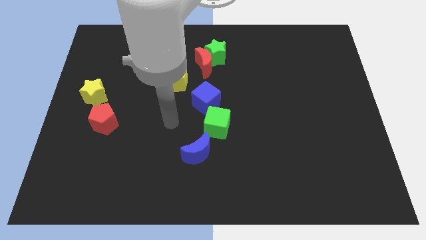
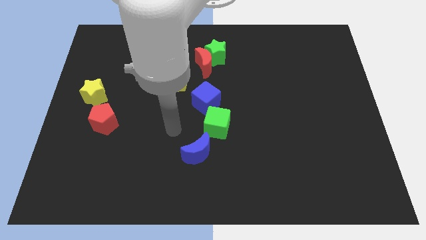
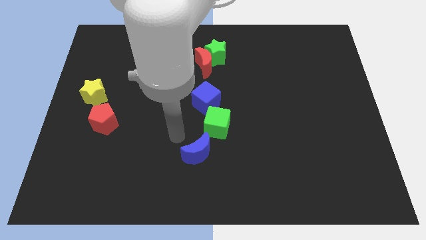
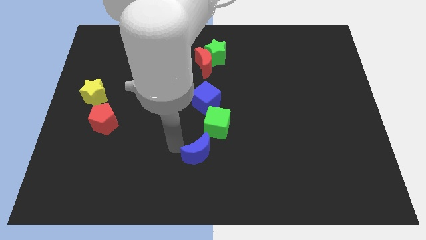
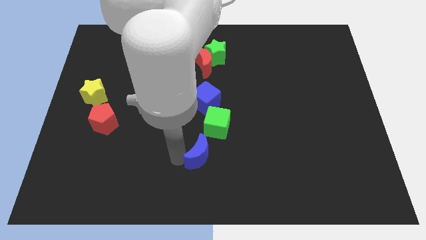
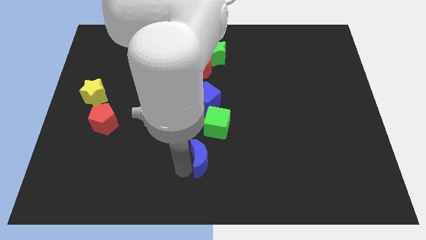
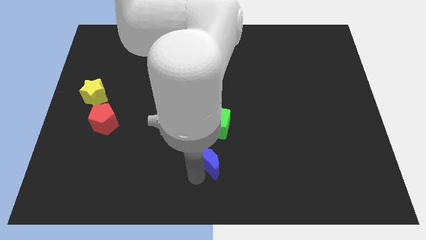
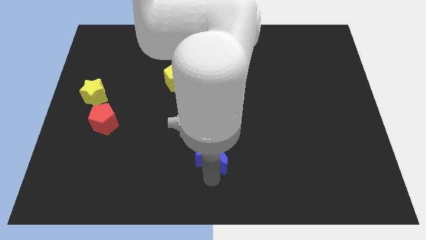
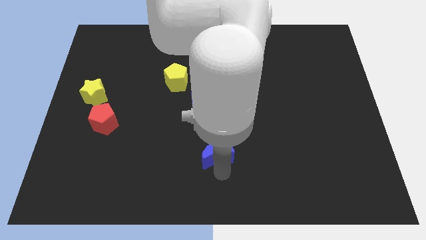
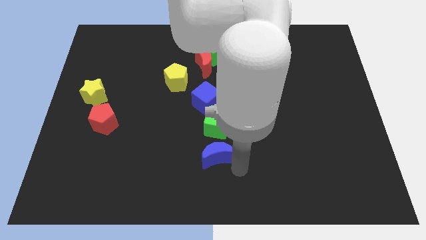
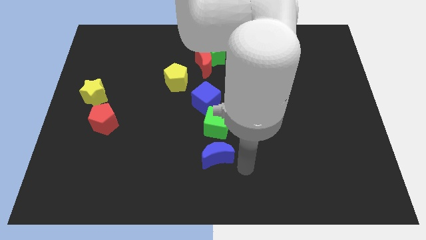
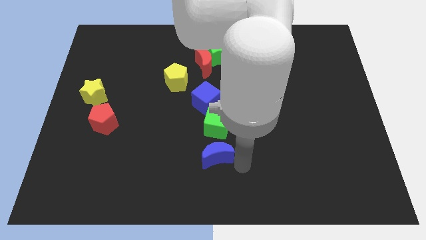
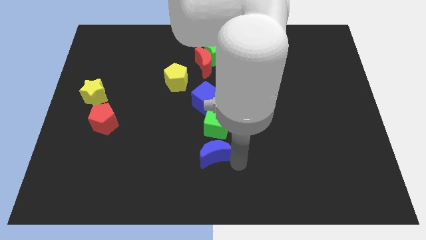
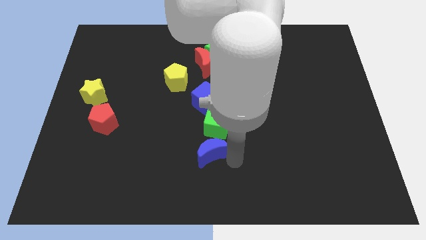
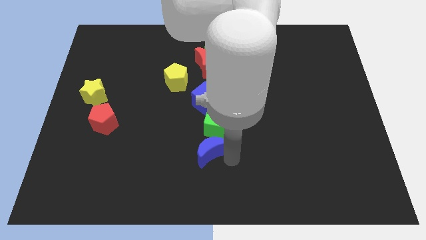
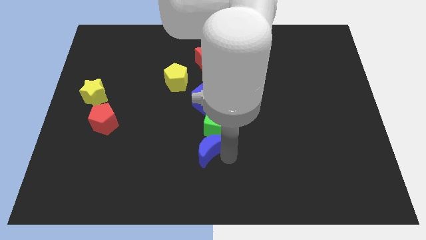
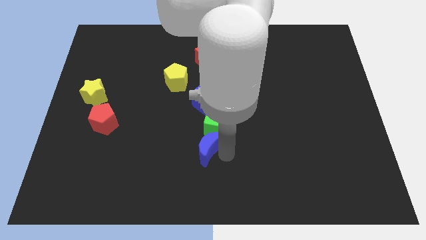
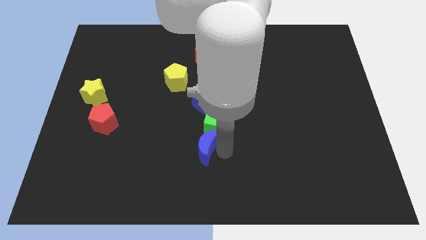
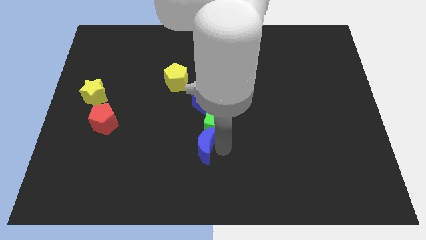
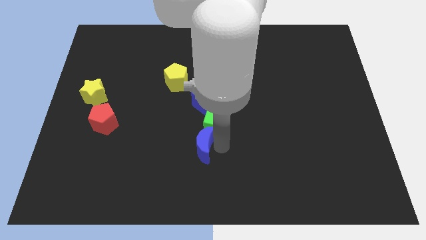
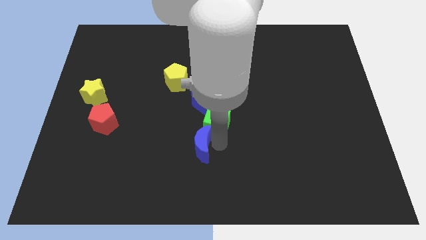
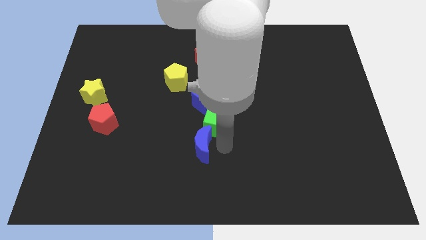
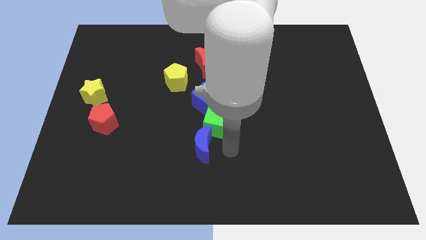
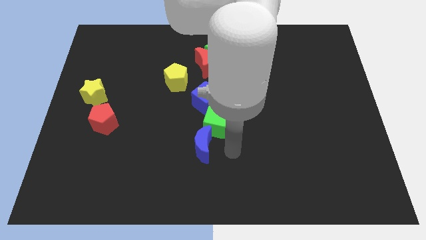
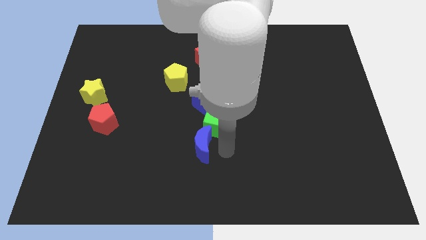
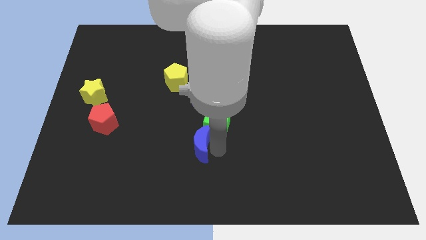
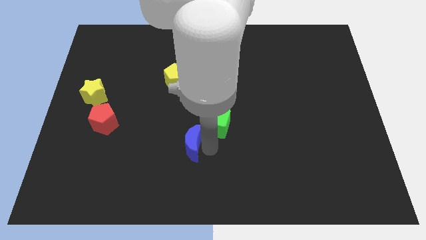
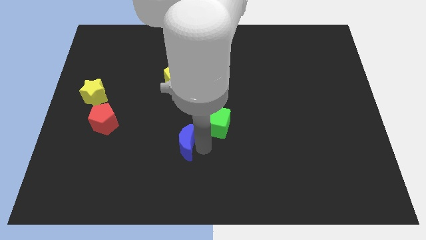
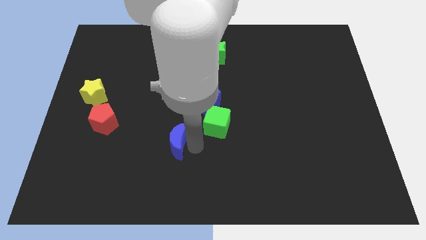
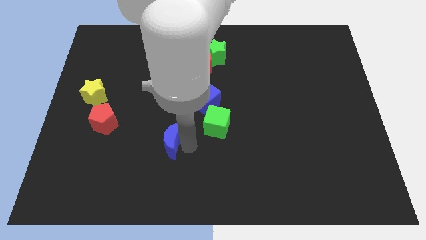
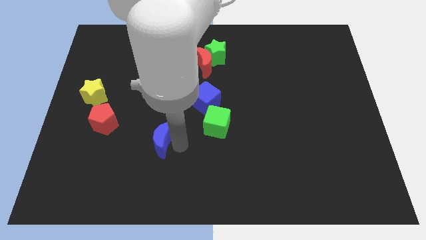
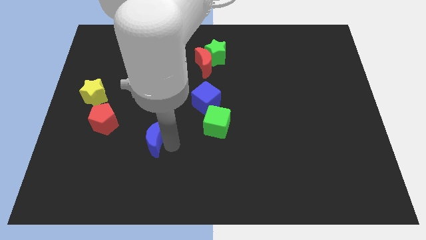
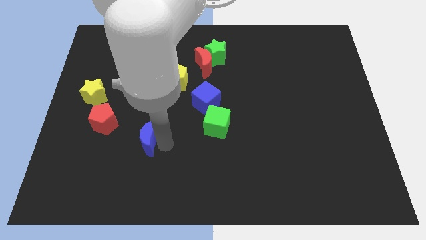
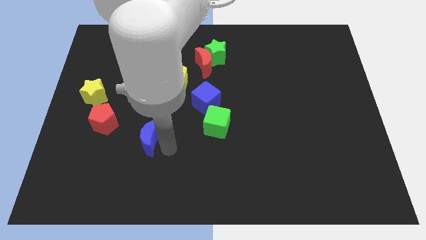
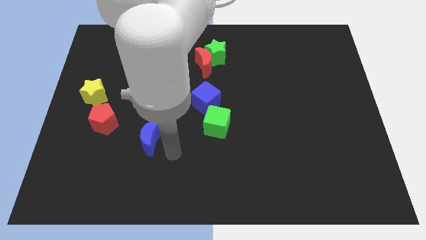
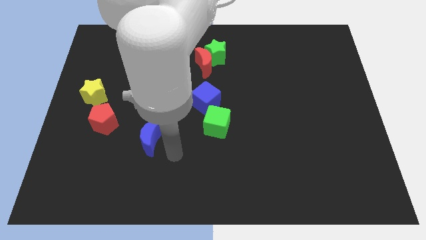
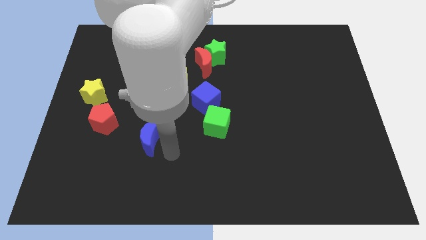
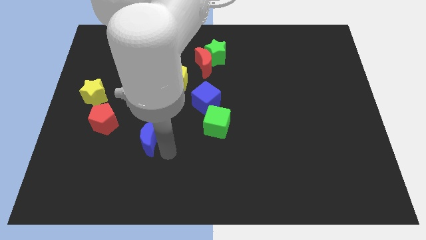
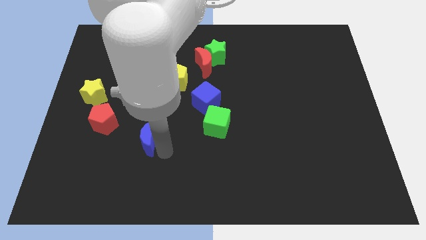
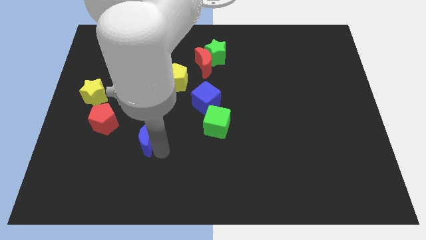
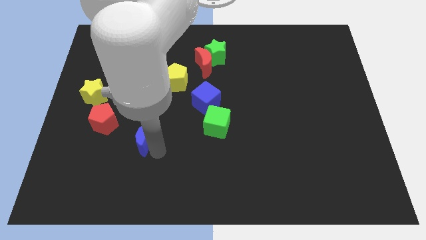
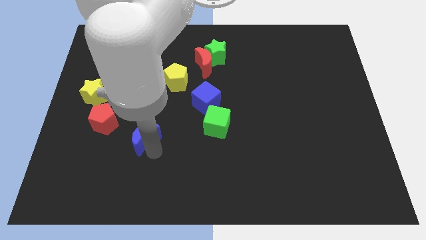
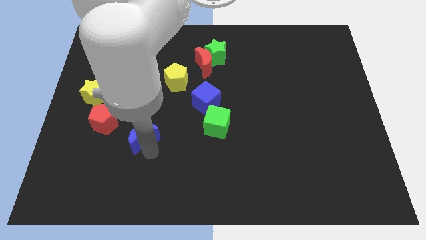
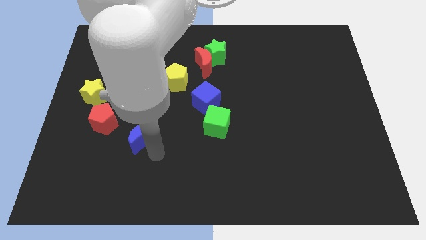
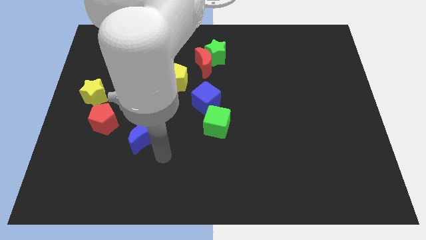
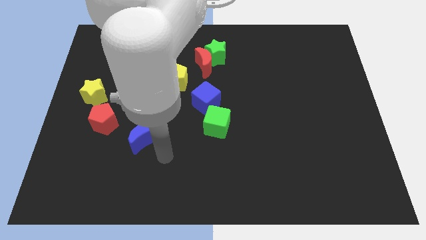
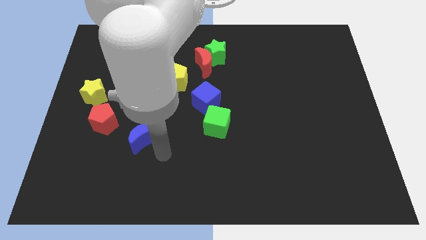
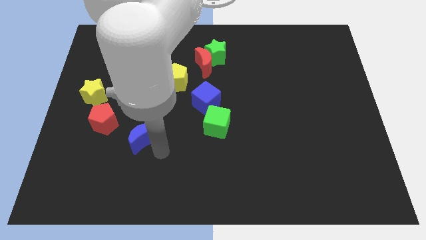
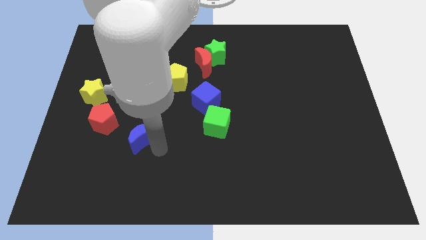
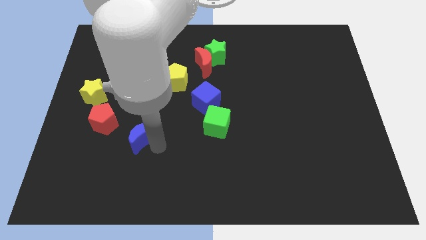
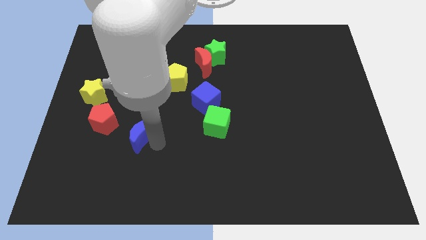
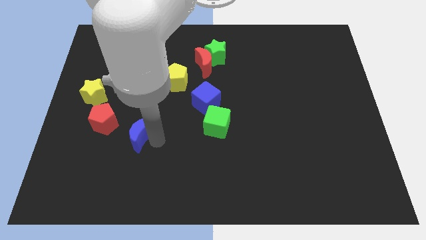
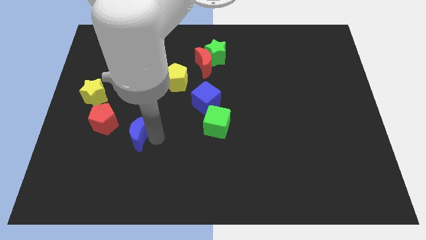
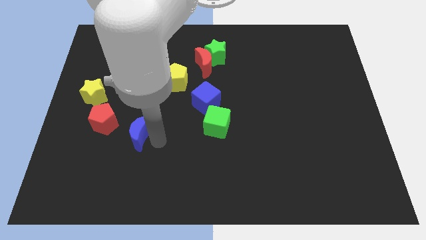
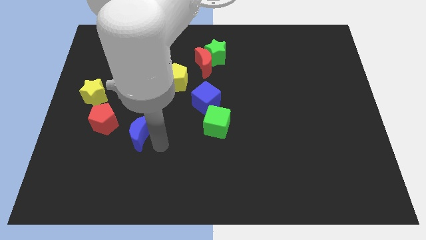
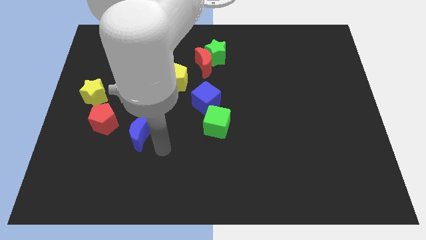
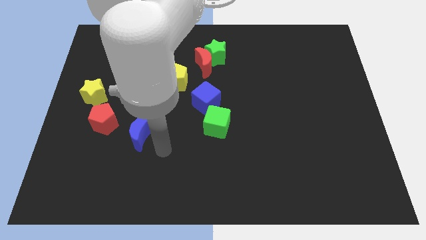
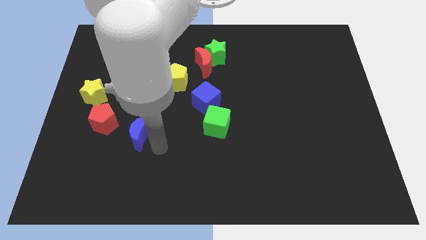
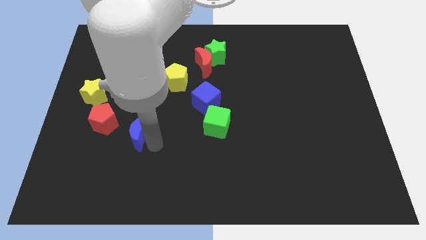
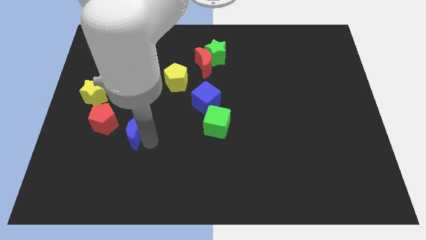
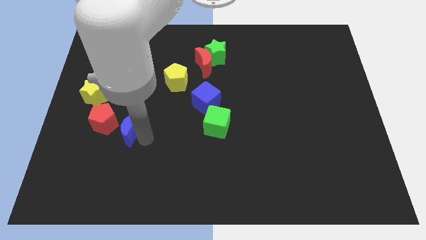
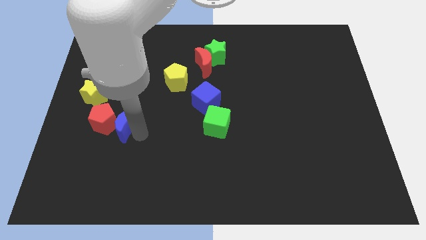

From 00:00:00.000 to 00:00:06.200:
push the blue moon towards the red pentagon
